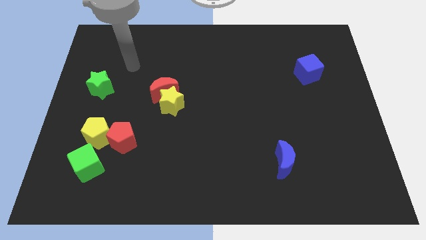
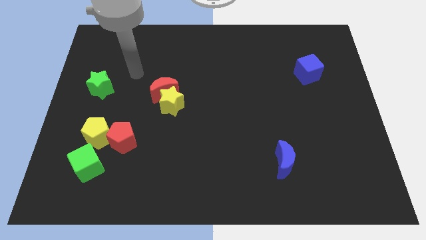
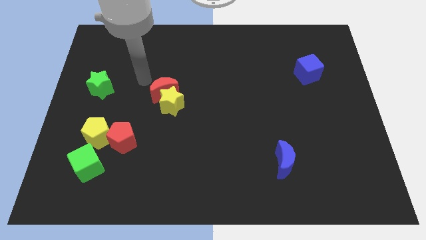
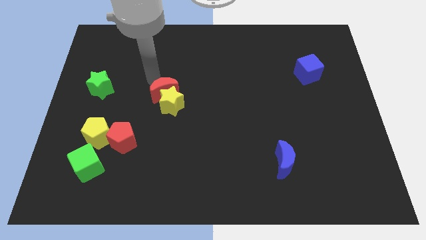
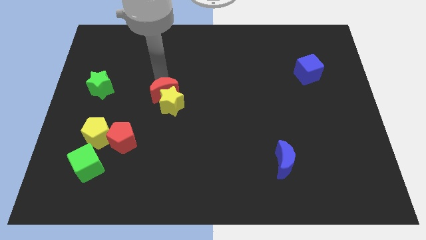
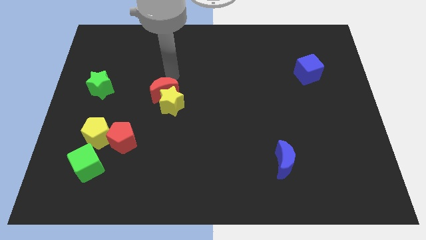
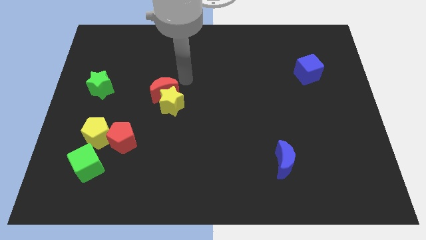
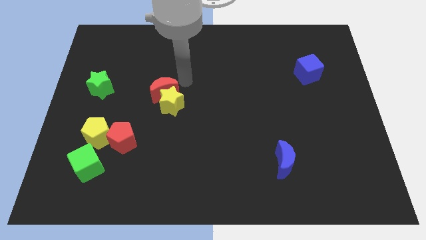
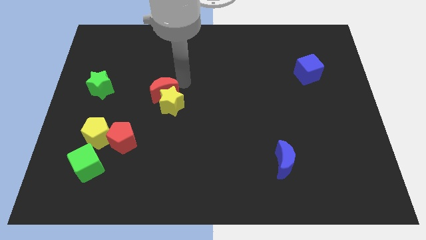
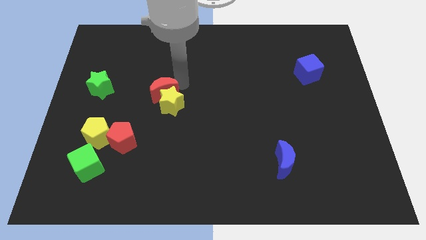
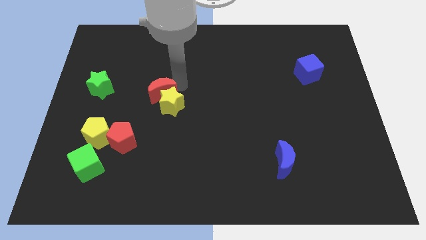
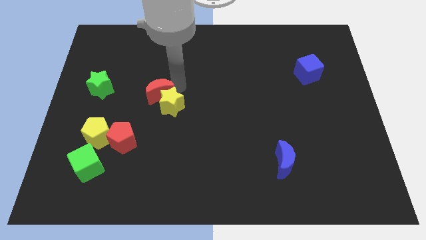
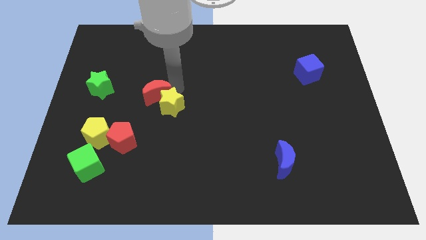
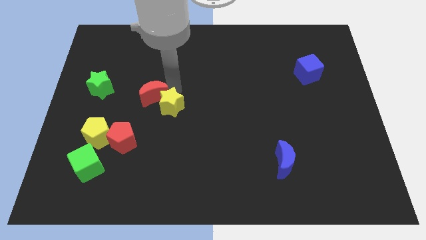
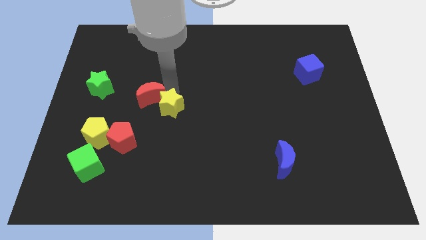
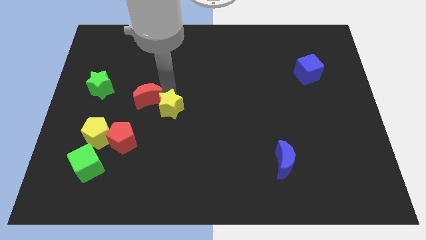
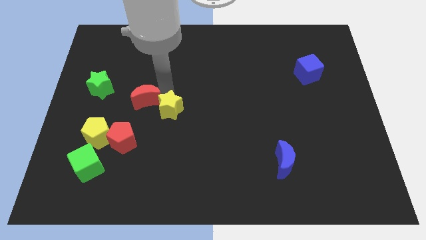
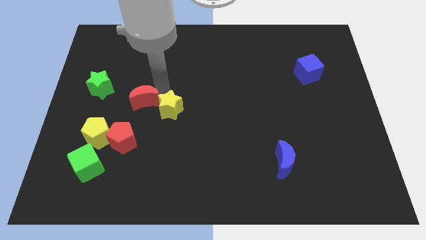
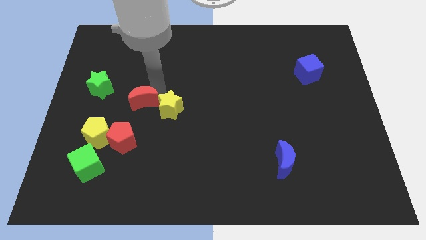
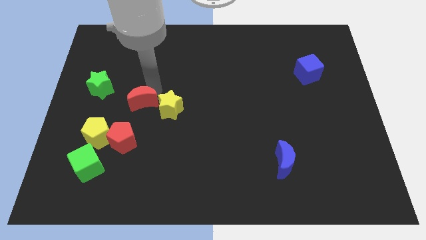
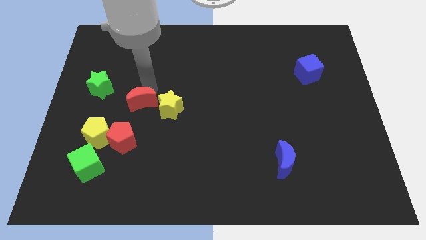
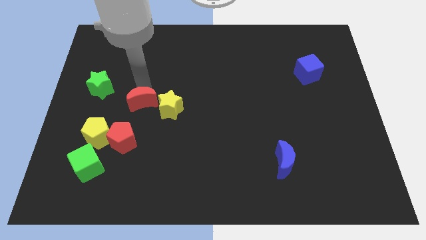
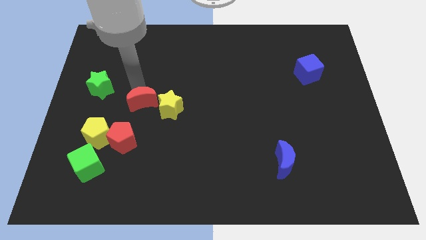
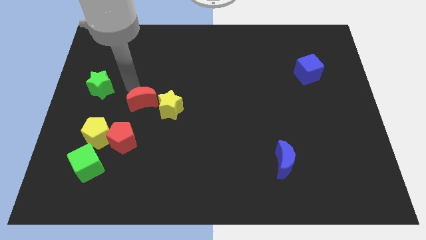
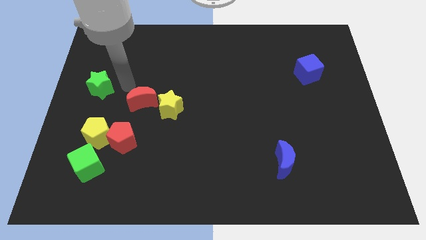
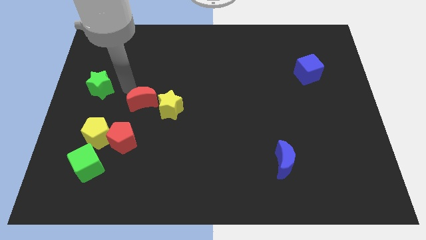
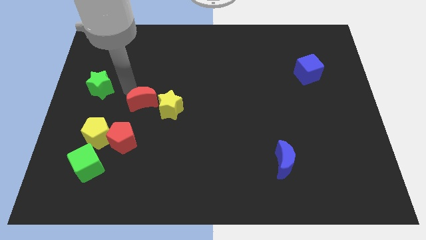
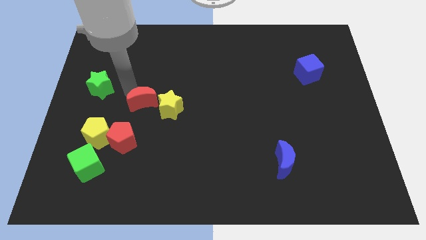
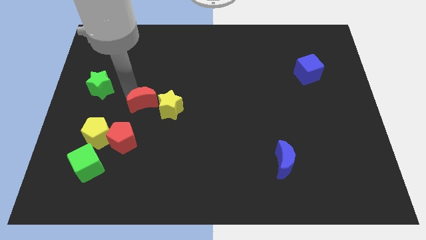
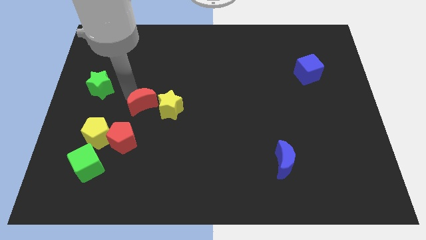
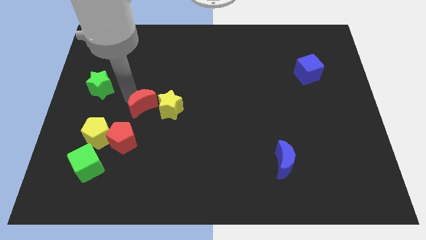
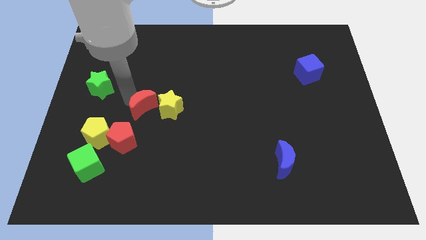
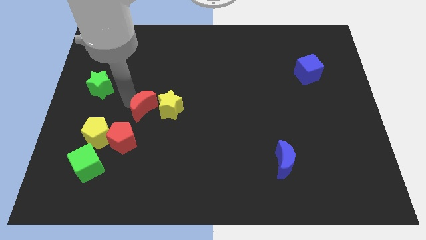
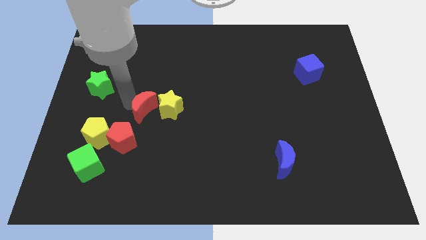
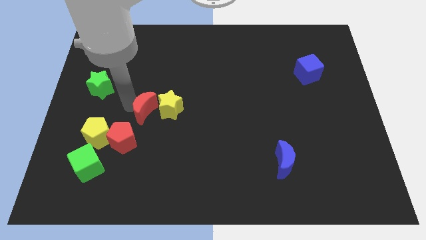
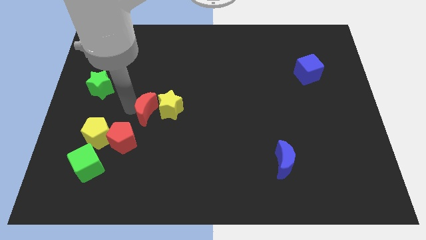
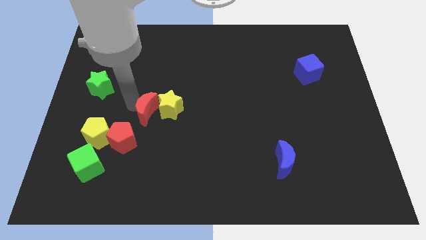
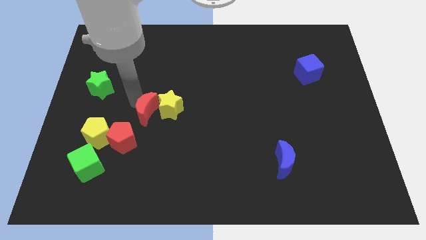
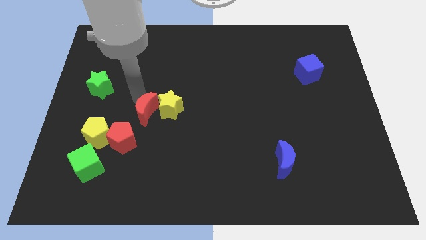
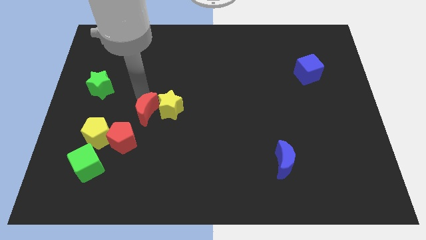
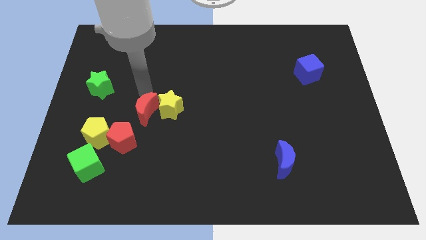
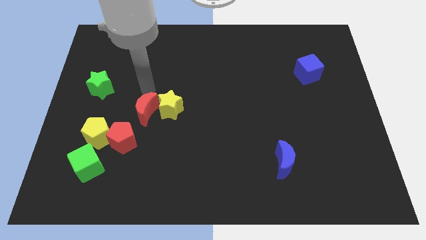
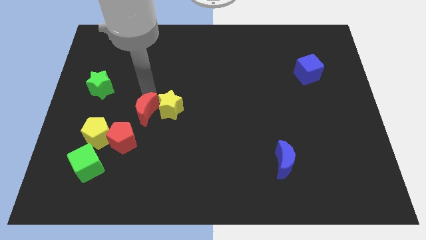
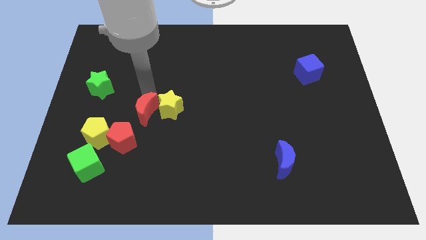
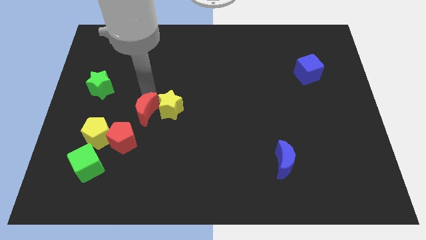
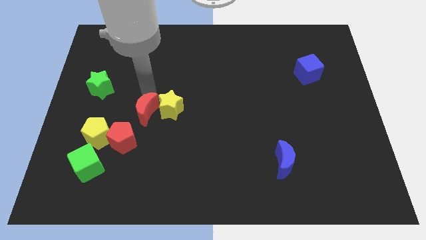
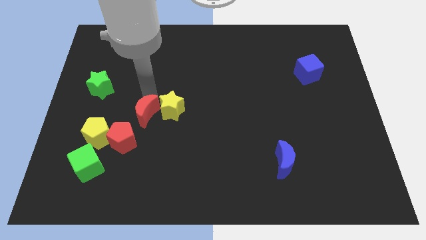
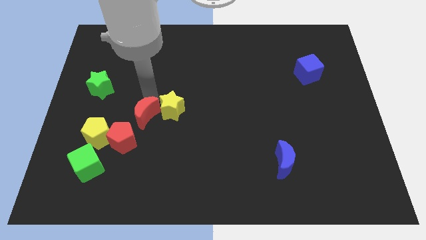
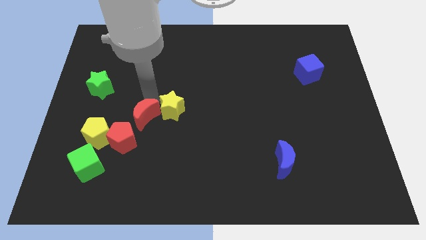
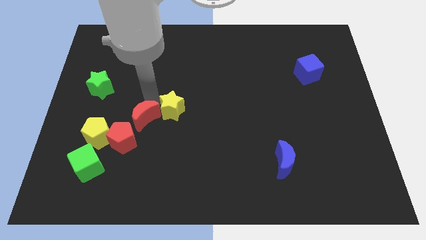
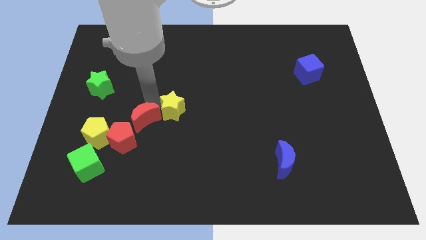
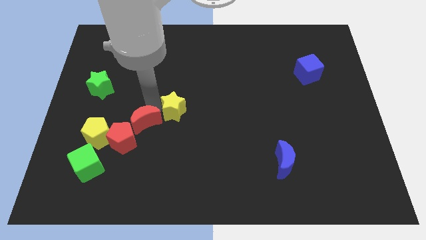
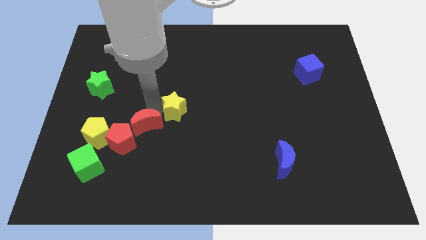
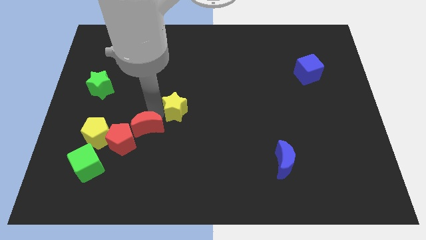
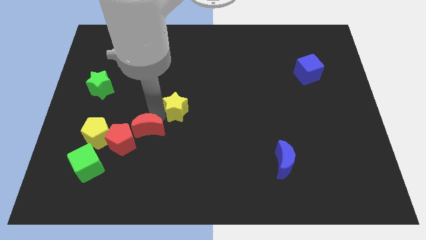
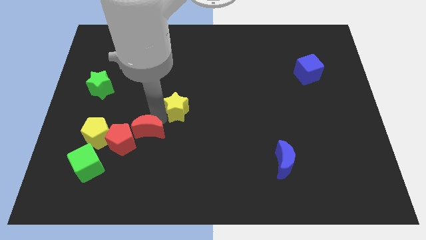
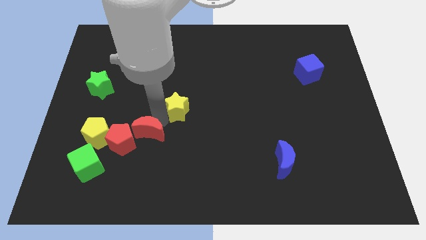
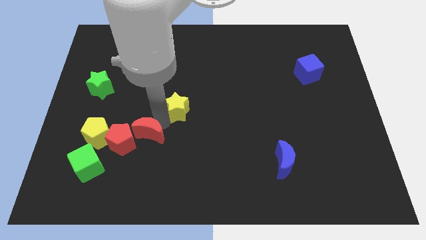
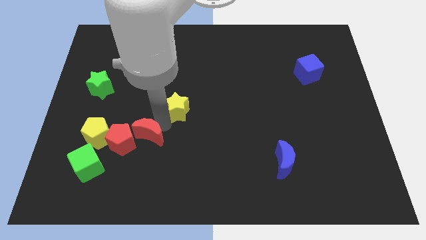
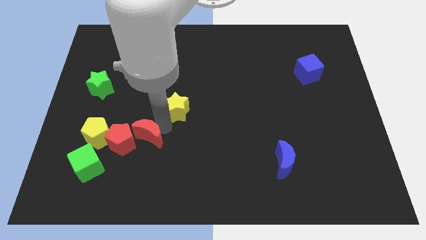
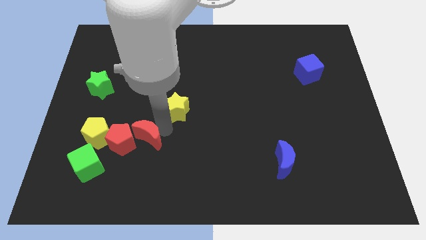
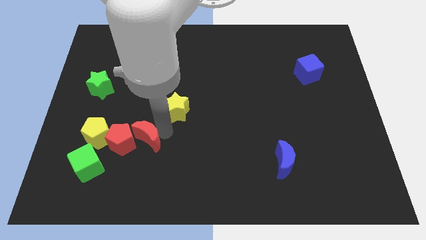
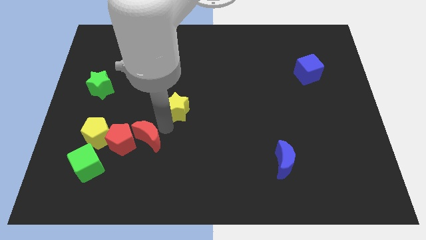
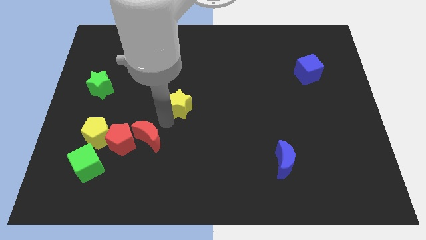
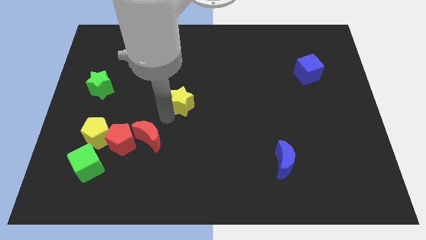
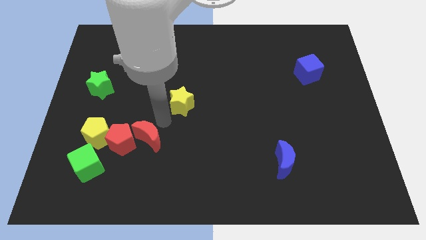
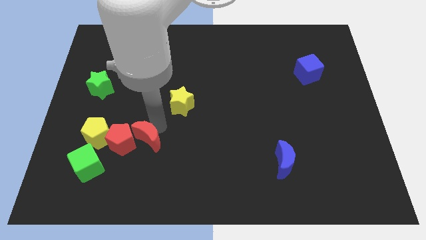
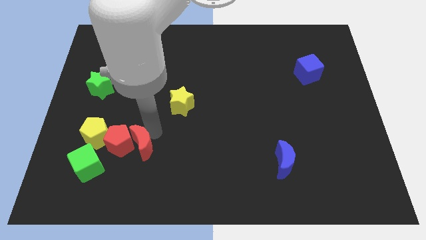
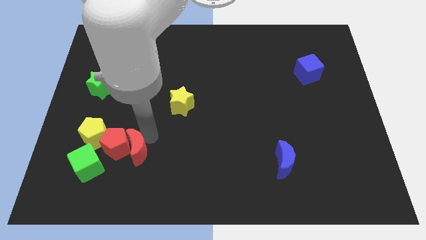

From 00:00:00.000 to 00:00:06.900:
move the red moon to the bottom right side of the yellow pentagon

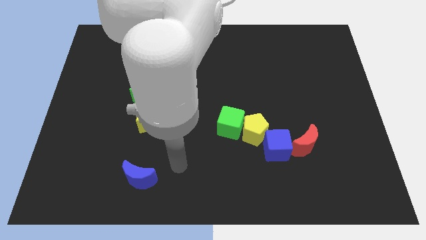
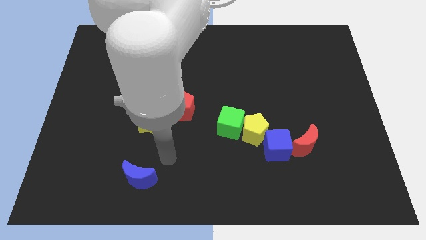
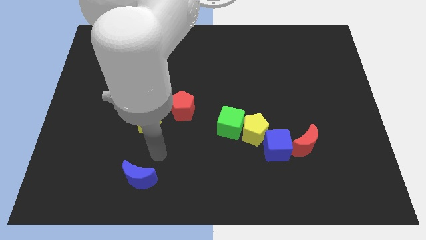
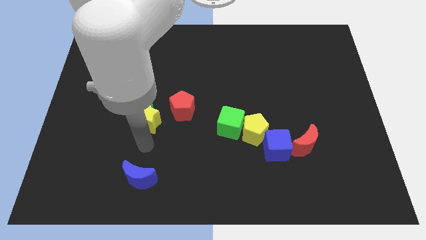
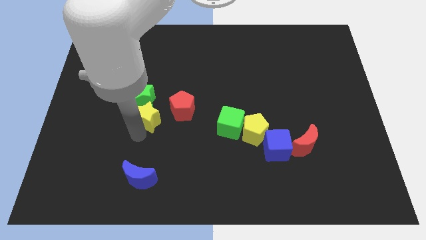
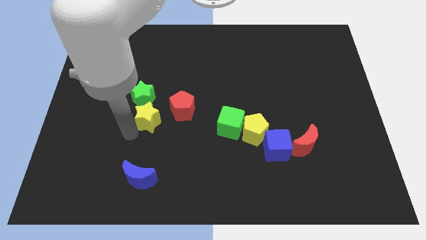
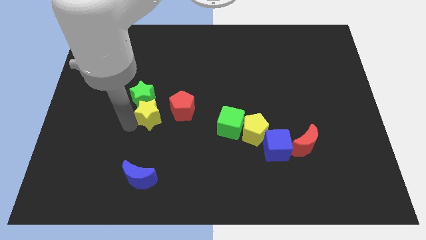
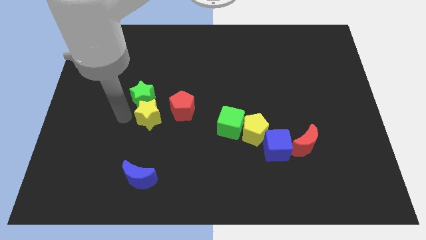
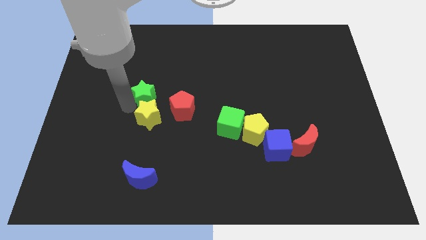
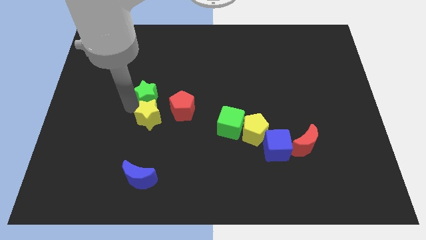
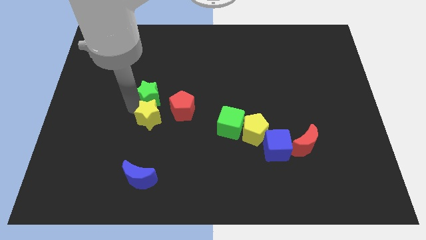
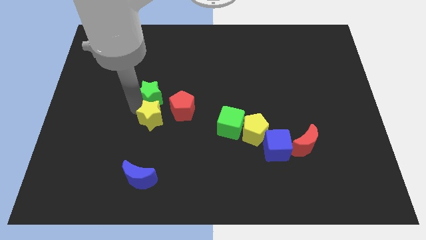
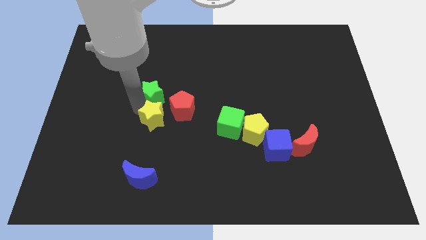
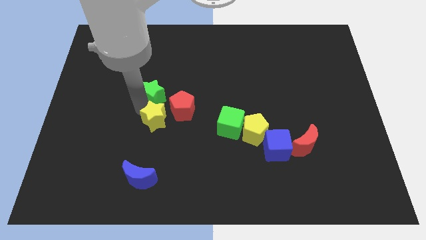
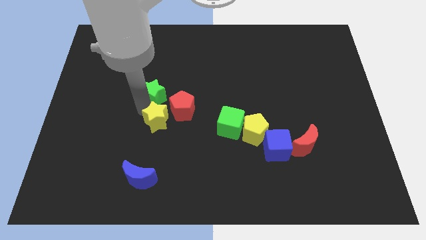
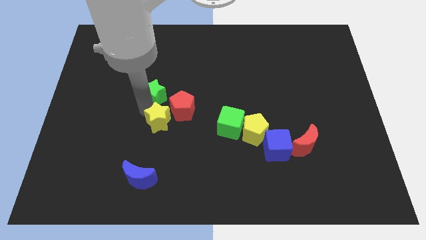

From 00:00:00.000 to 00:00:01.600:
put the yellow star just left of the green cube

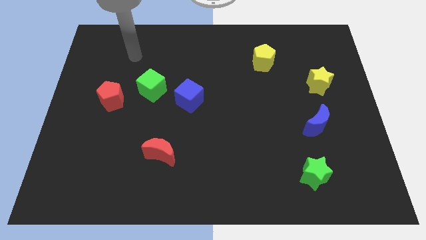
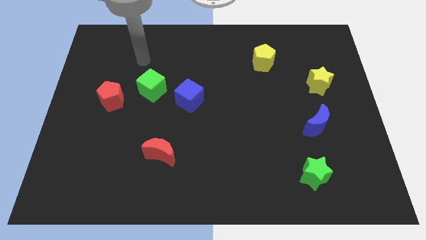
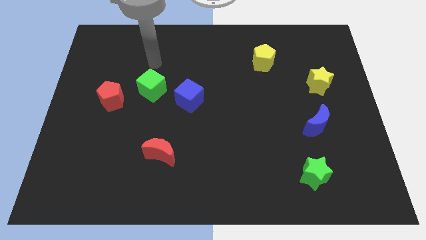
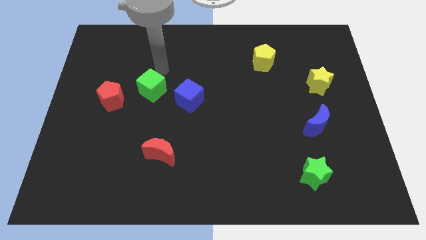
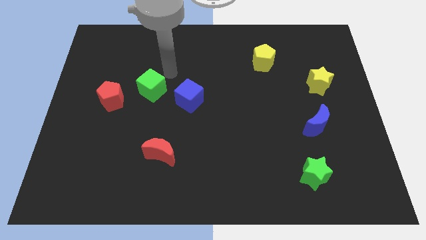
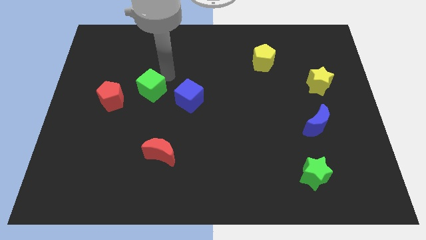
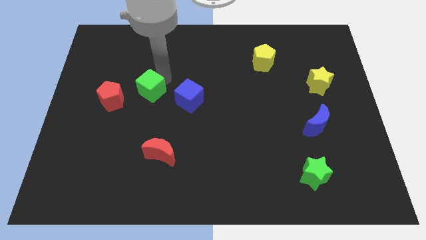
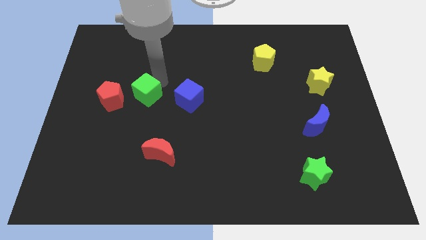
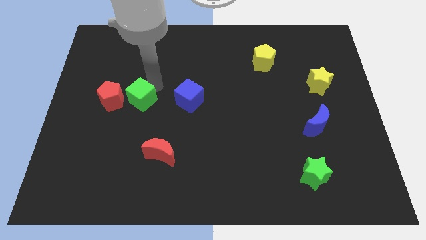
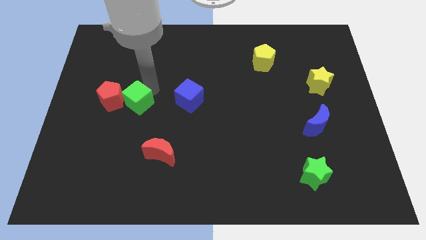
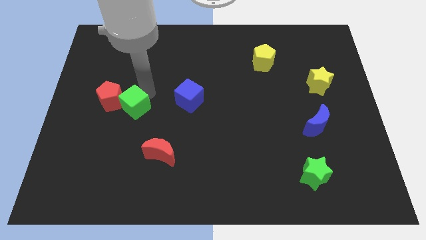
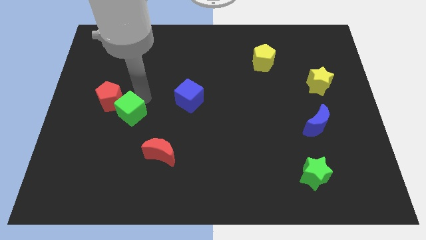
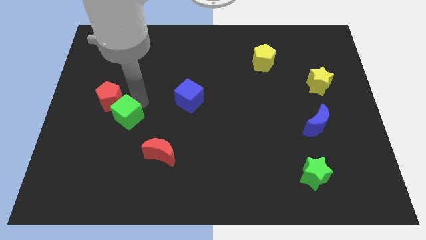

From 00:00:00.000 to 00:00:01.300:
slide the green cube to the bottom side of the red pentagon
